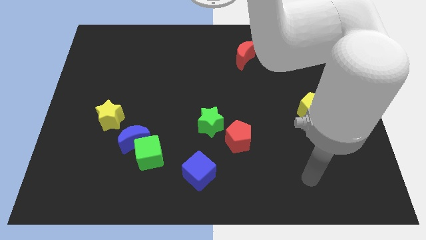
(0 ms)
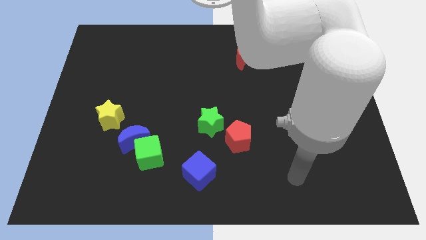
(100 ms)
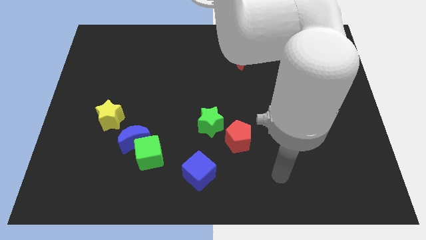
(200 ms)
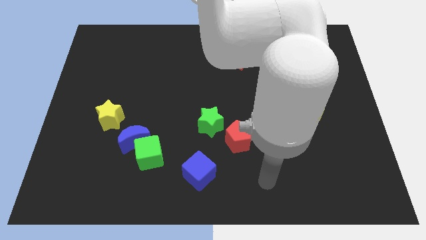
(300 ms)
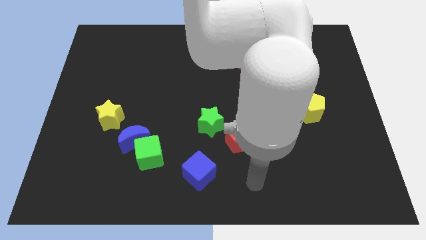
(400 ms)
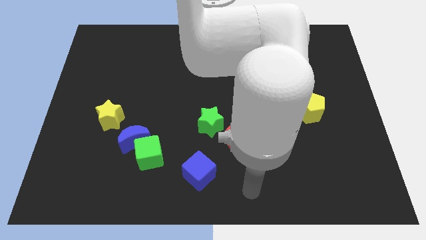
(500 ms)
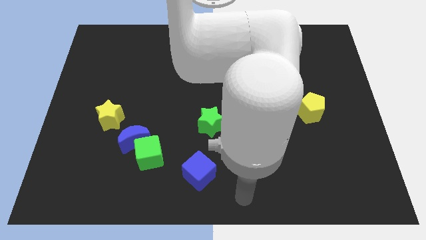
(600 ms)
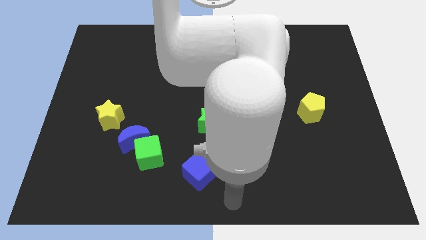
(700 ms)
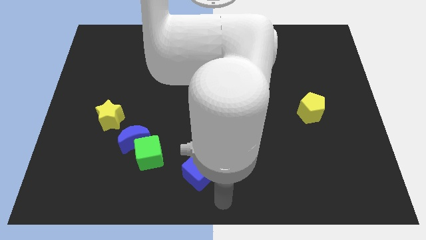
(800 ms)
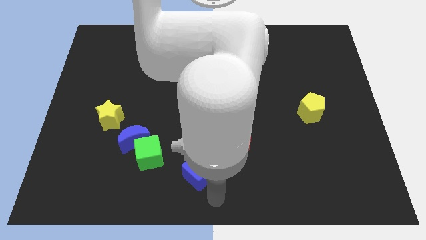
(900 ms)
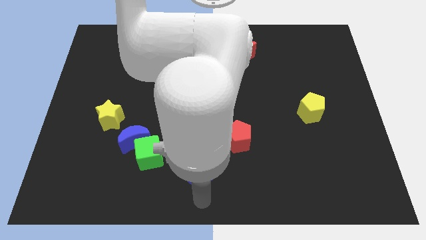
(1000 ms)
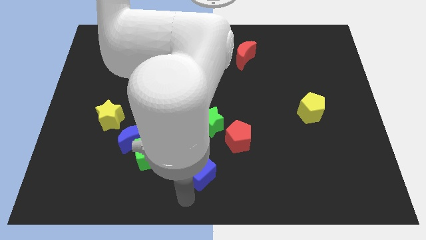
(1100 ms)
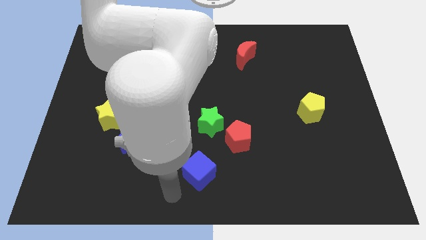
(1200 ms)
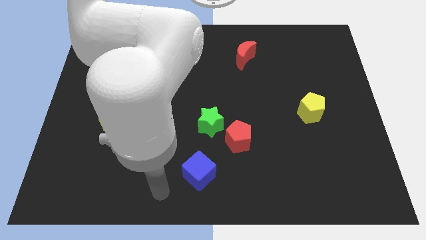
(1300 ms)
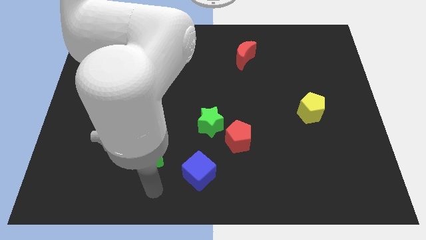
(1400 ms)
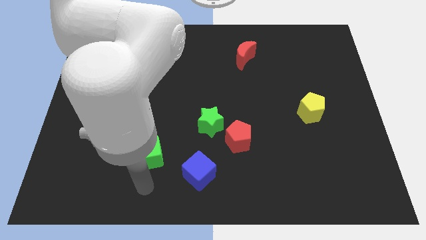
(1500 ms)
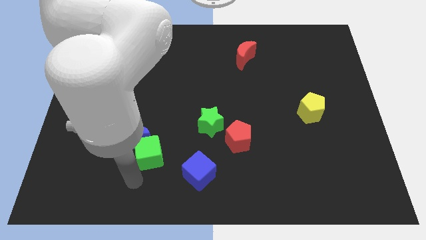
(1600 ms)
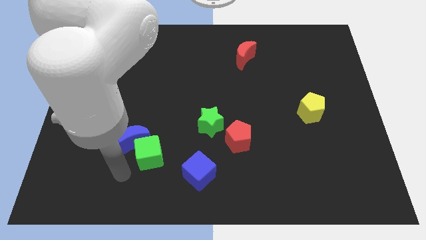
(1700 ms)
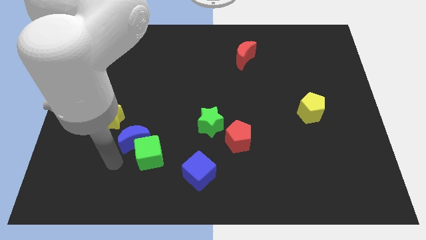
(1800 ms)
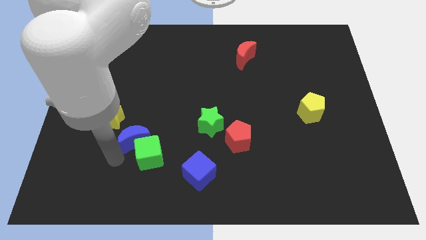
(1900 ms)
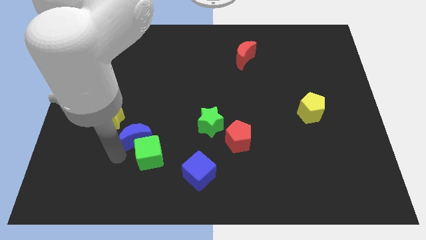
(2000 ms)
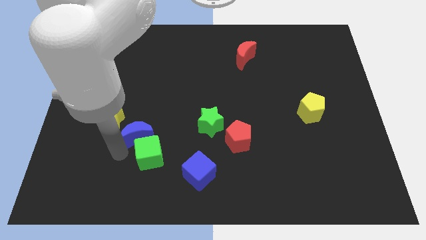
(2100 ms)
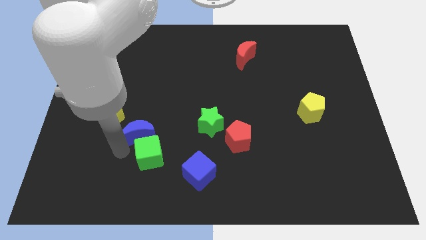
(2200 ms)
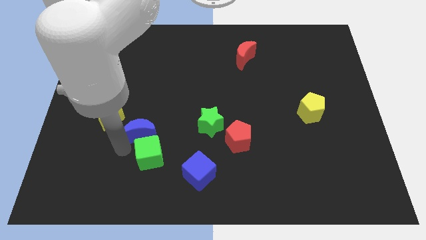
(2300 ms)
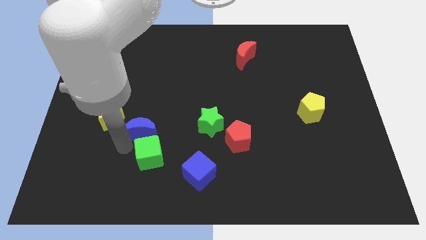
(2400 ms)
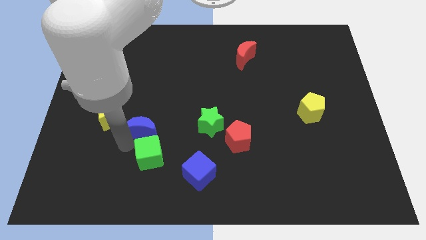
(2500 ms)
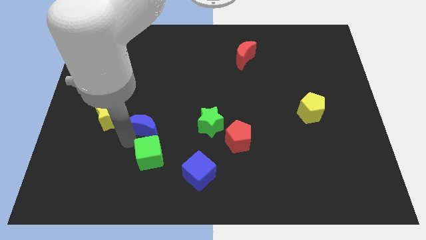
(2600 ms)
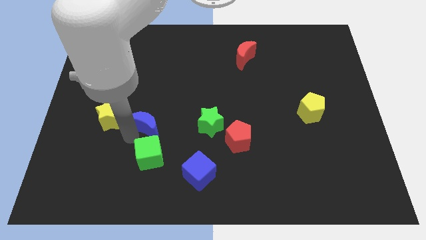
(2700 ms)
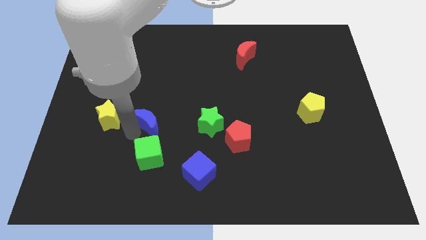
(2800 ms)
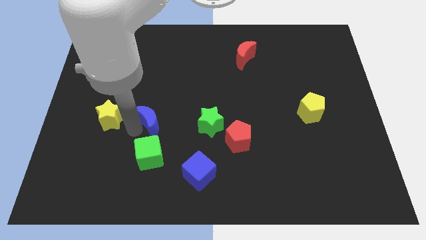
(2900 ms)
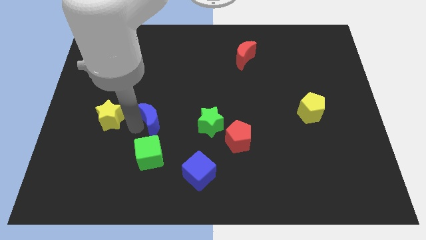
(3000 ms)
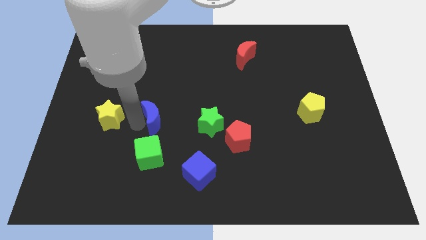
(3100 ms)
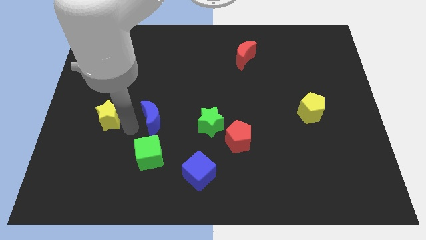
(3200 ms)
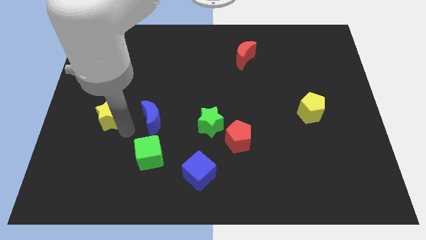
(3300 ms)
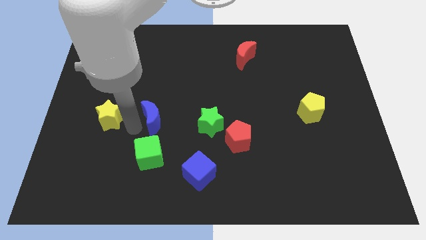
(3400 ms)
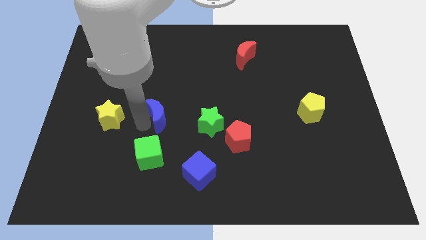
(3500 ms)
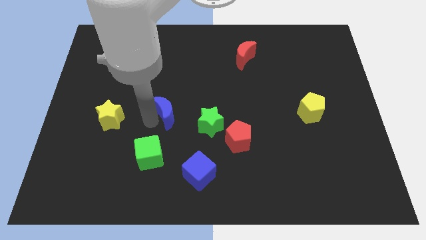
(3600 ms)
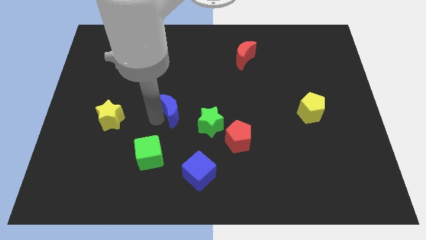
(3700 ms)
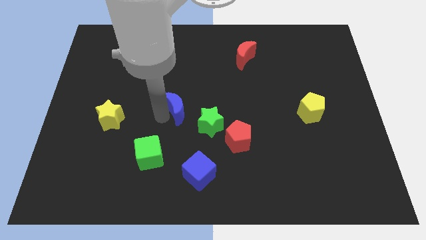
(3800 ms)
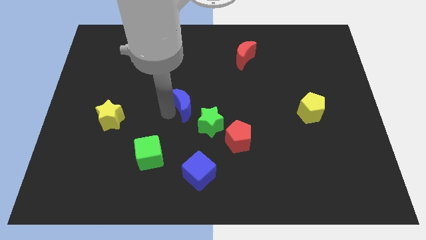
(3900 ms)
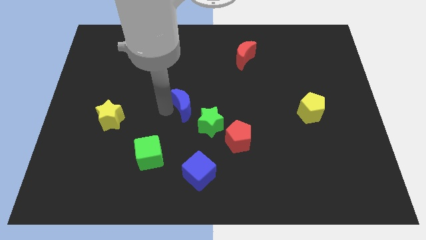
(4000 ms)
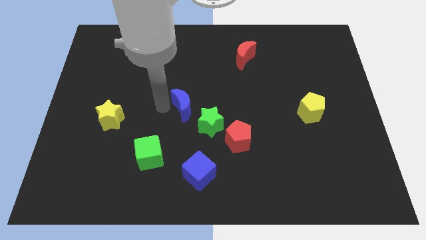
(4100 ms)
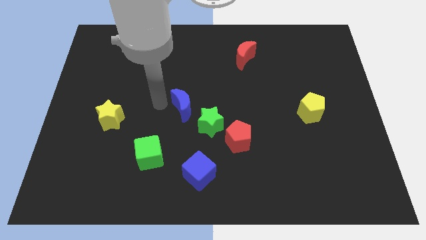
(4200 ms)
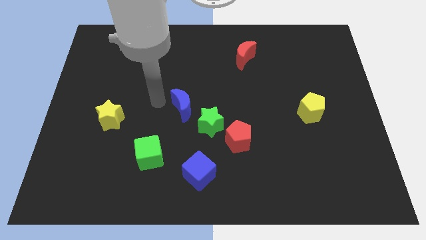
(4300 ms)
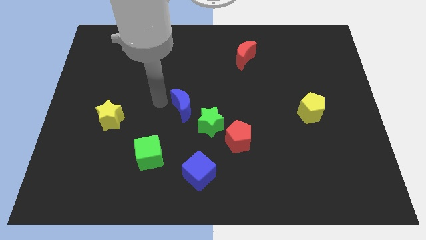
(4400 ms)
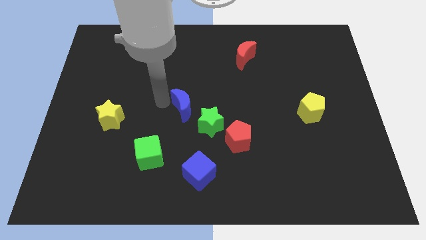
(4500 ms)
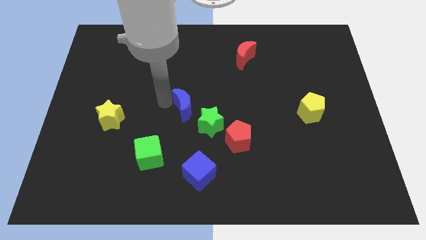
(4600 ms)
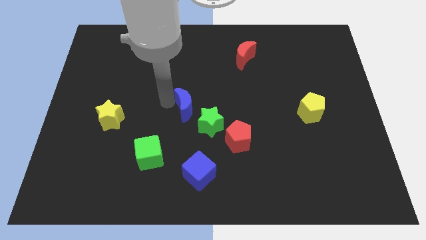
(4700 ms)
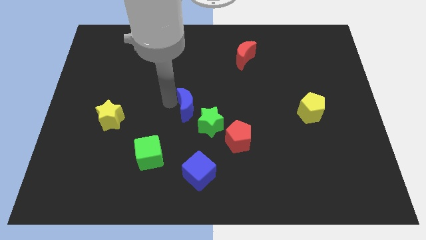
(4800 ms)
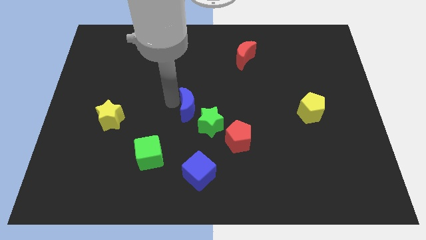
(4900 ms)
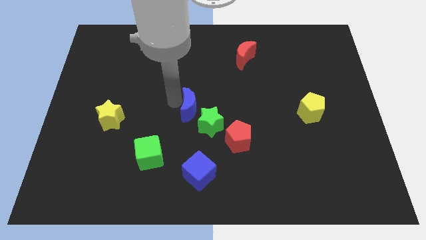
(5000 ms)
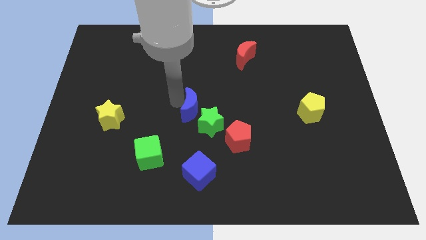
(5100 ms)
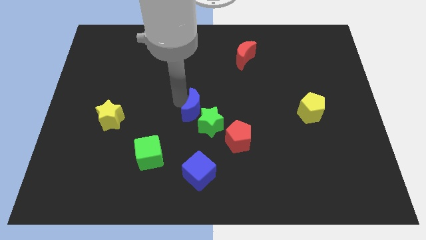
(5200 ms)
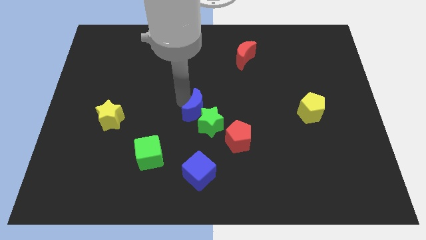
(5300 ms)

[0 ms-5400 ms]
slide the blue moon diagonally up and to the left of the red pentagon

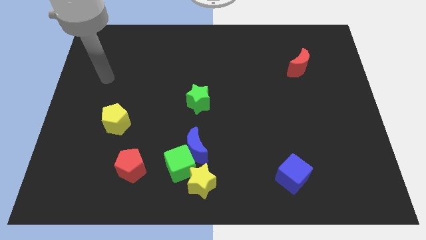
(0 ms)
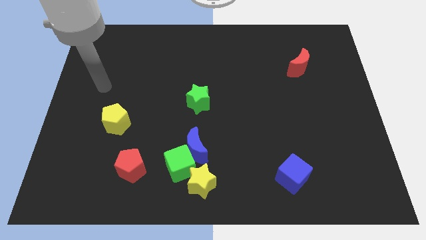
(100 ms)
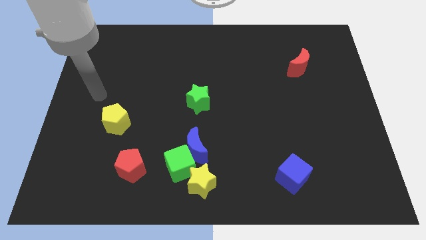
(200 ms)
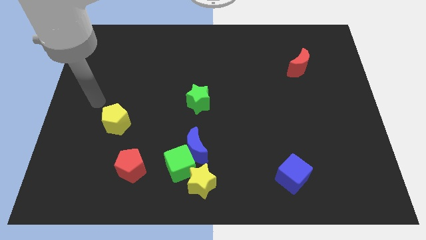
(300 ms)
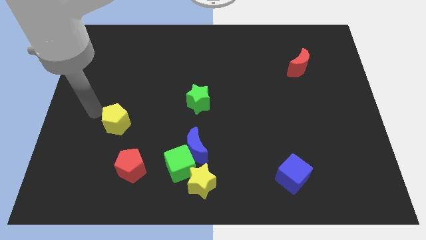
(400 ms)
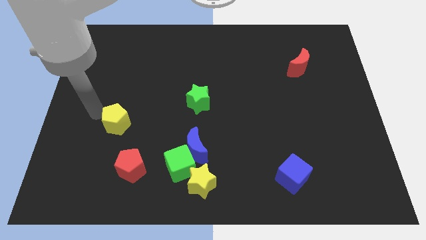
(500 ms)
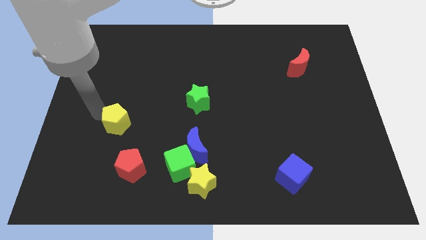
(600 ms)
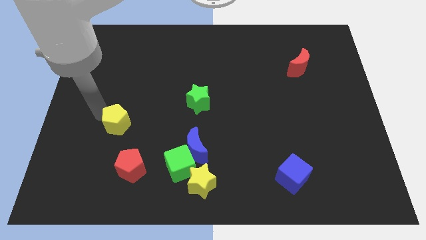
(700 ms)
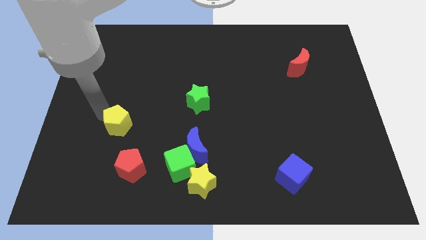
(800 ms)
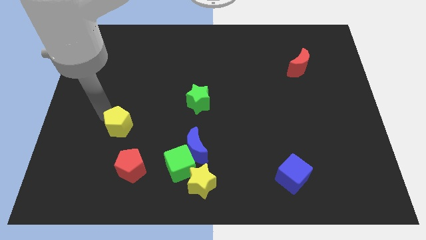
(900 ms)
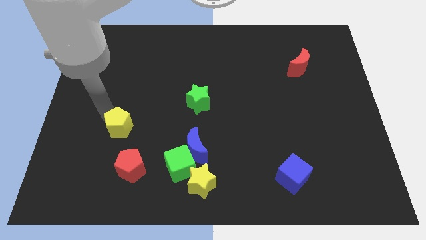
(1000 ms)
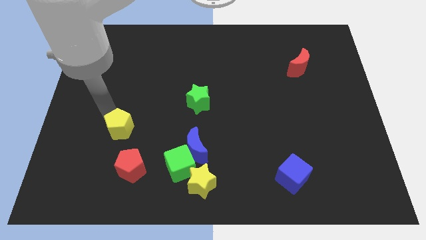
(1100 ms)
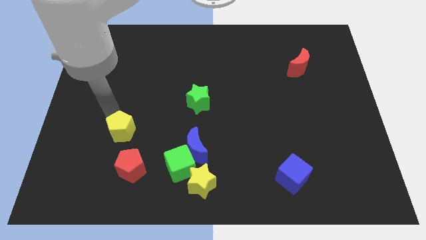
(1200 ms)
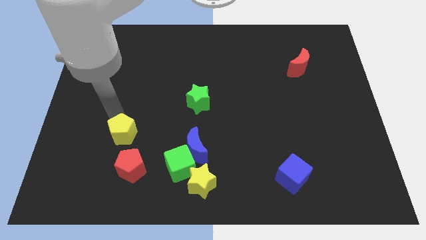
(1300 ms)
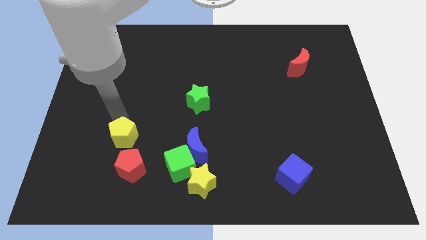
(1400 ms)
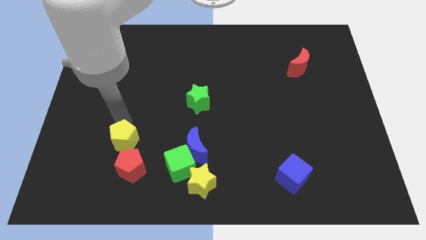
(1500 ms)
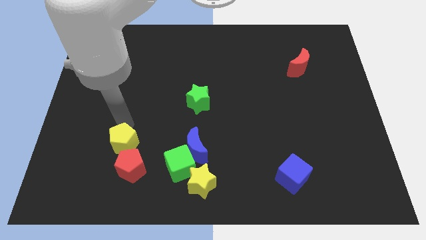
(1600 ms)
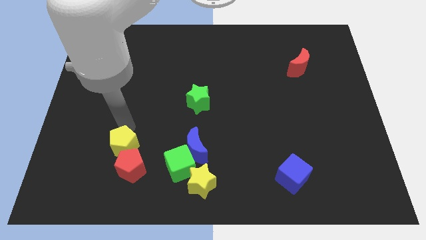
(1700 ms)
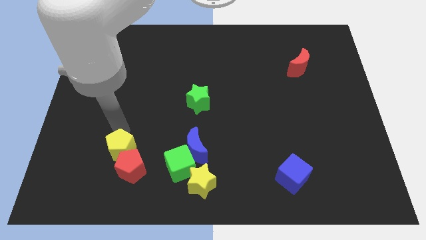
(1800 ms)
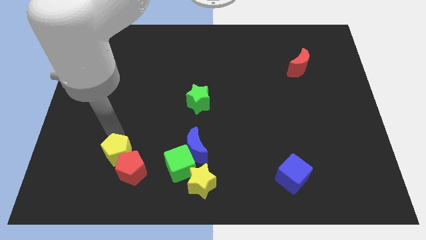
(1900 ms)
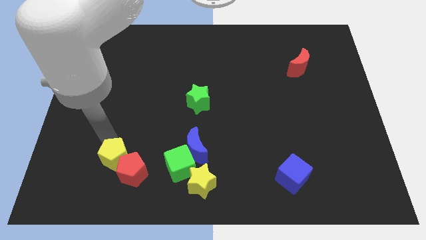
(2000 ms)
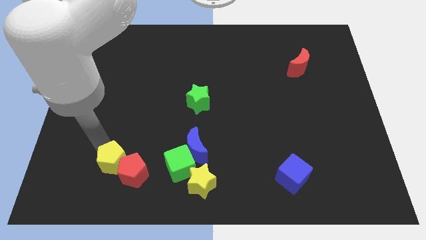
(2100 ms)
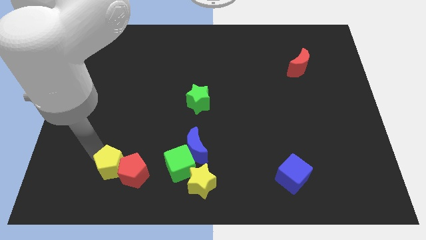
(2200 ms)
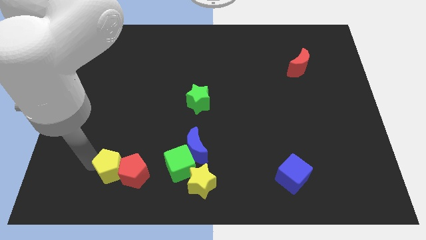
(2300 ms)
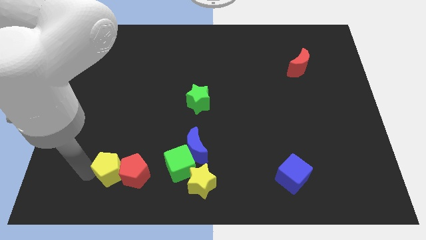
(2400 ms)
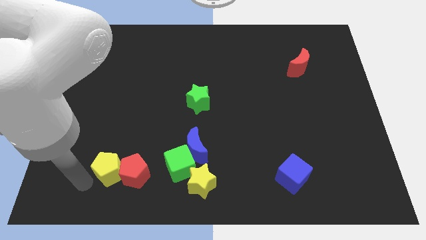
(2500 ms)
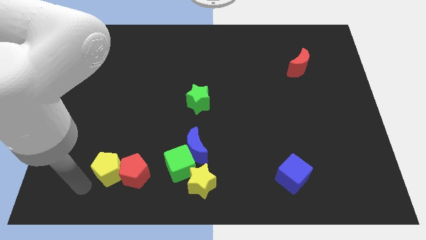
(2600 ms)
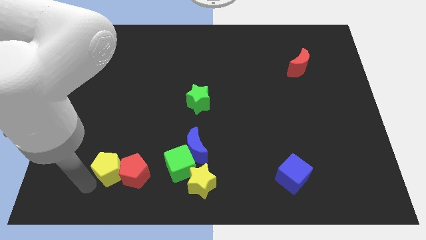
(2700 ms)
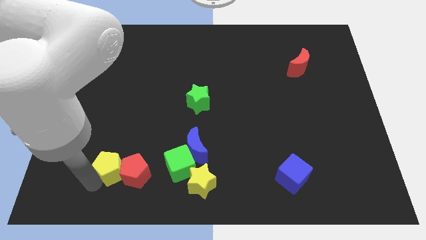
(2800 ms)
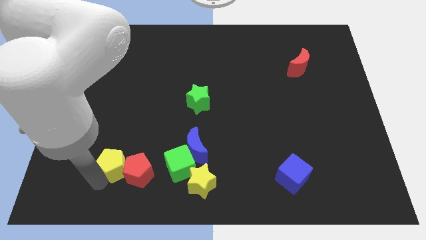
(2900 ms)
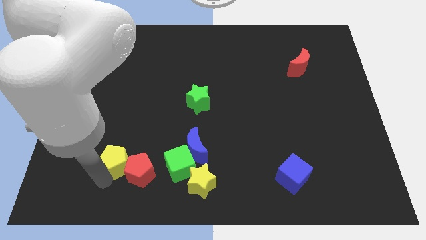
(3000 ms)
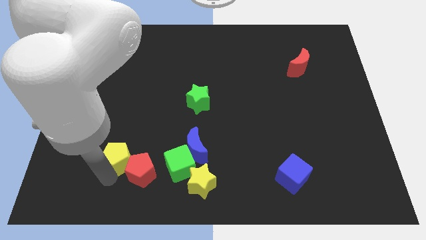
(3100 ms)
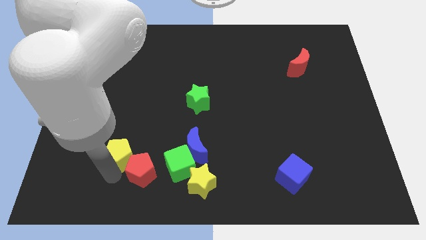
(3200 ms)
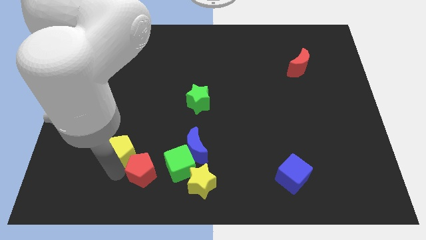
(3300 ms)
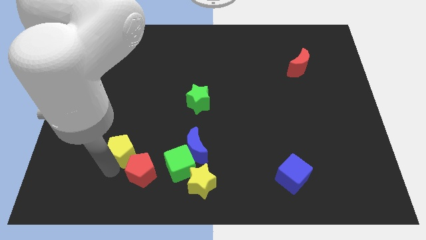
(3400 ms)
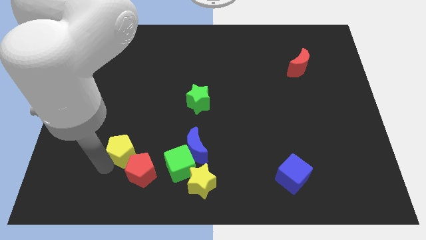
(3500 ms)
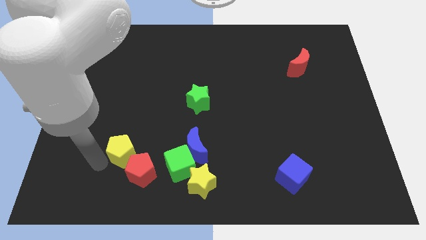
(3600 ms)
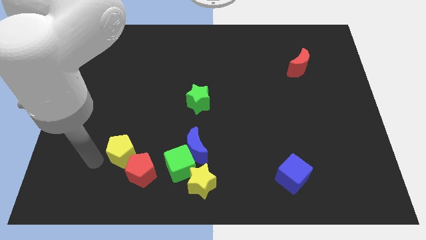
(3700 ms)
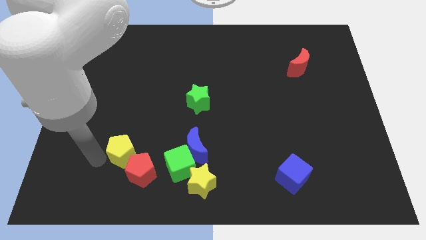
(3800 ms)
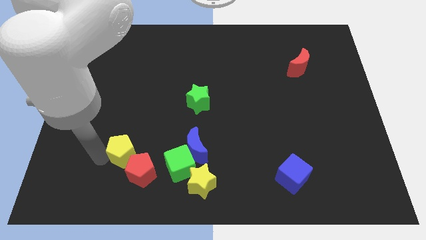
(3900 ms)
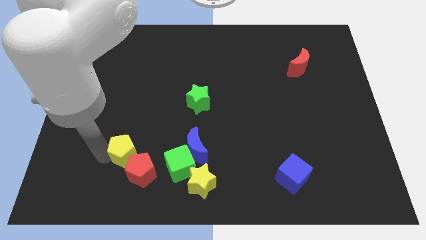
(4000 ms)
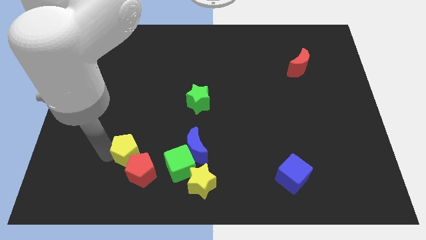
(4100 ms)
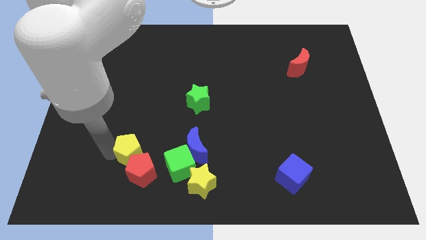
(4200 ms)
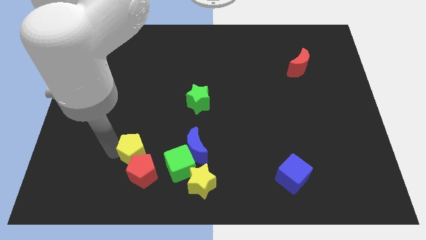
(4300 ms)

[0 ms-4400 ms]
put the yellow pentagon to the top left side of the green cube
